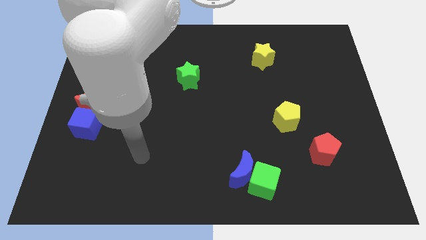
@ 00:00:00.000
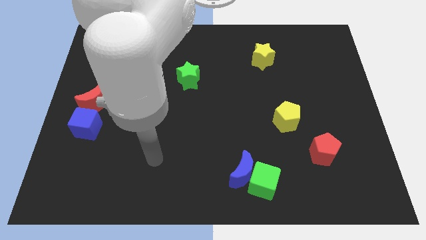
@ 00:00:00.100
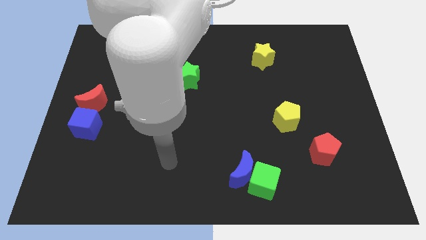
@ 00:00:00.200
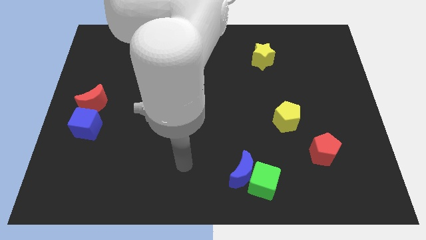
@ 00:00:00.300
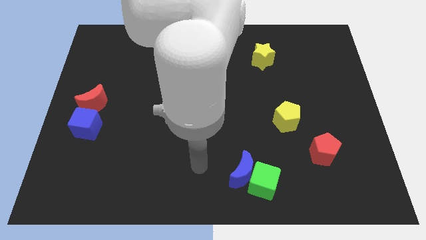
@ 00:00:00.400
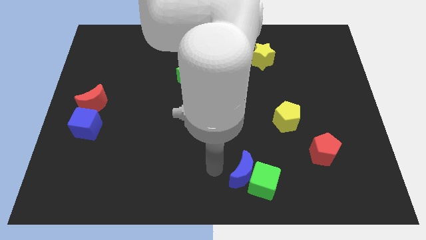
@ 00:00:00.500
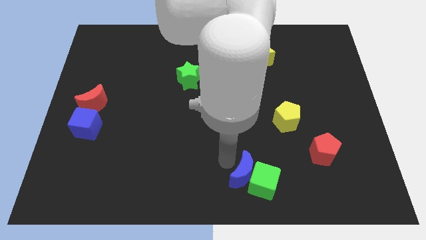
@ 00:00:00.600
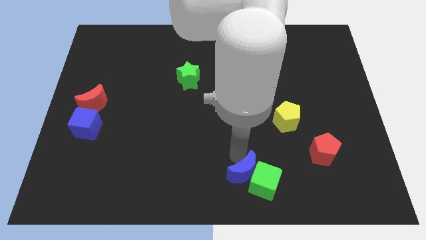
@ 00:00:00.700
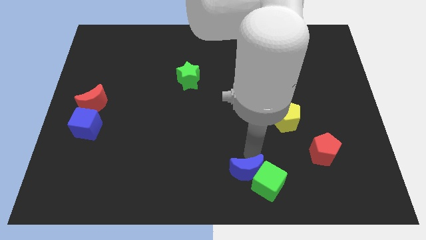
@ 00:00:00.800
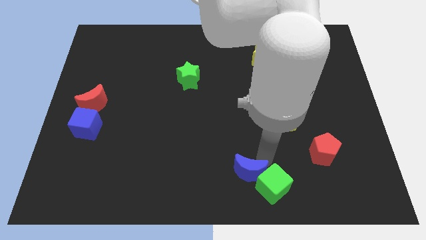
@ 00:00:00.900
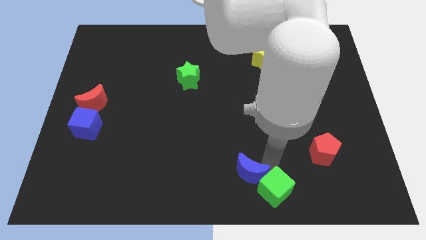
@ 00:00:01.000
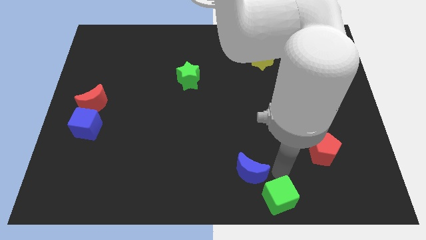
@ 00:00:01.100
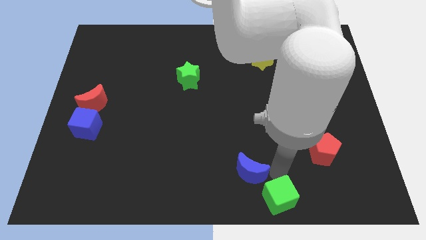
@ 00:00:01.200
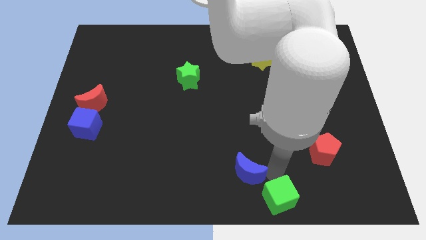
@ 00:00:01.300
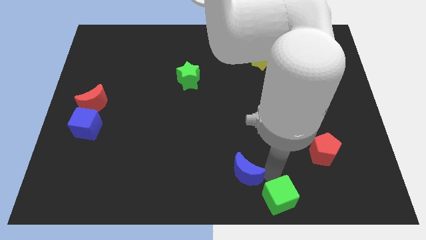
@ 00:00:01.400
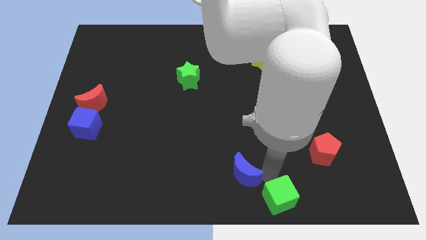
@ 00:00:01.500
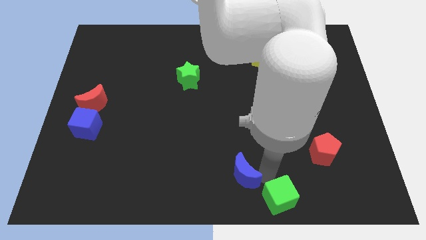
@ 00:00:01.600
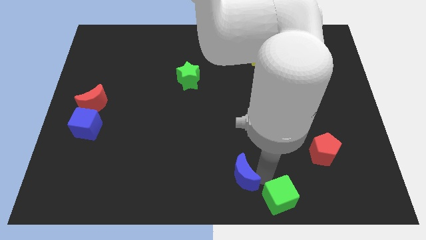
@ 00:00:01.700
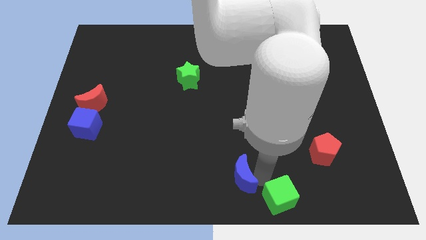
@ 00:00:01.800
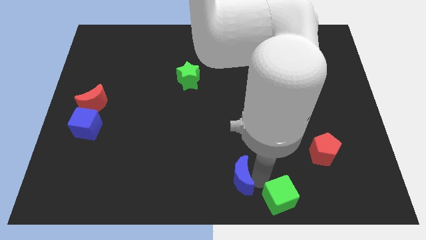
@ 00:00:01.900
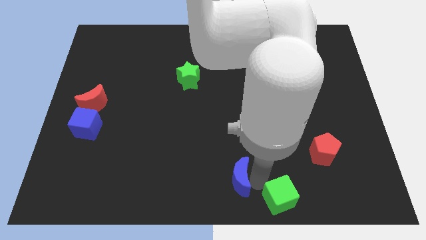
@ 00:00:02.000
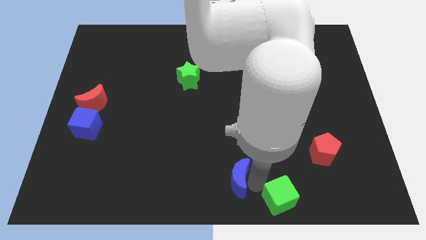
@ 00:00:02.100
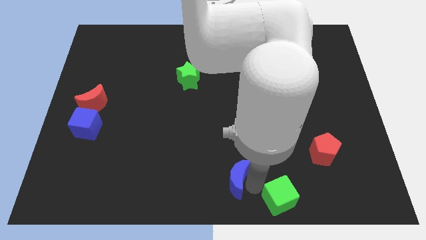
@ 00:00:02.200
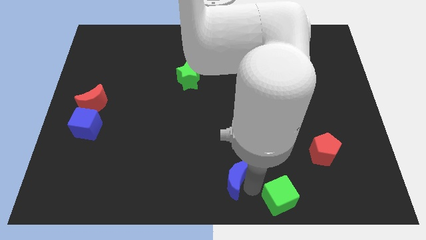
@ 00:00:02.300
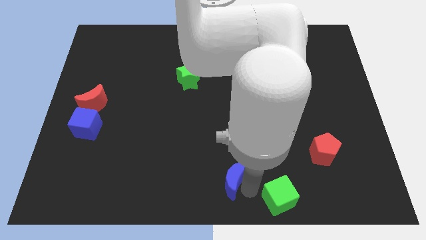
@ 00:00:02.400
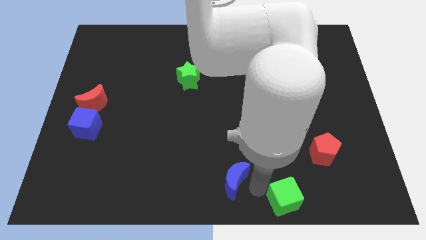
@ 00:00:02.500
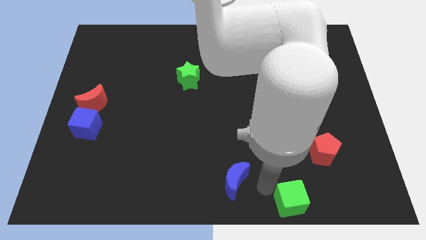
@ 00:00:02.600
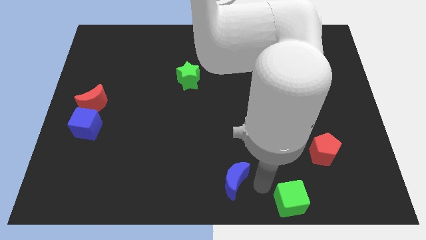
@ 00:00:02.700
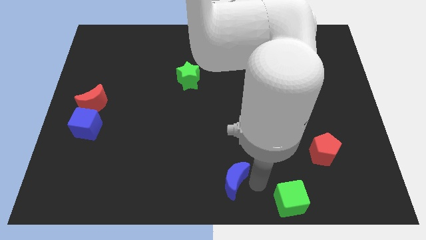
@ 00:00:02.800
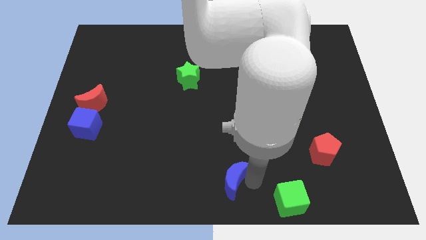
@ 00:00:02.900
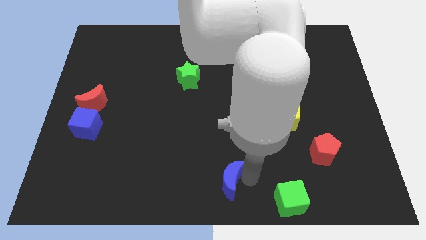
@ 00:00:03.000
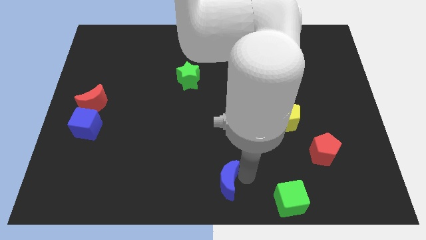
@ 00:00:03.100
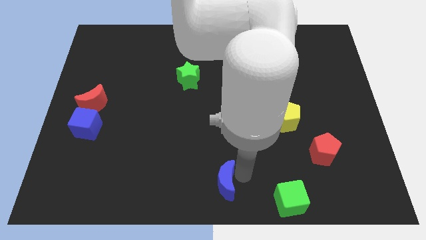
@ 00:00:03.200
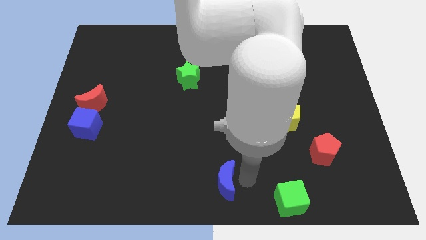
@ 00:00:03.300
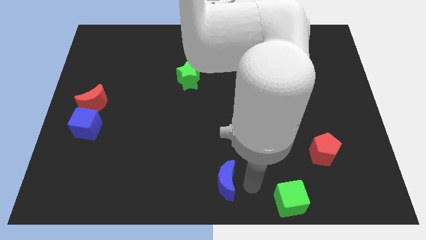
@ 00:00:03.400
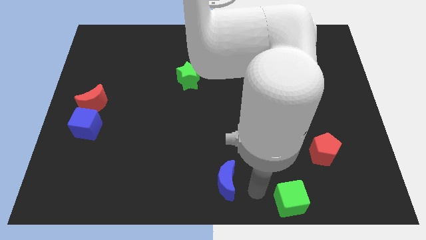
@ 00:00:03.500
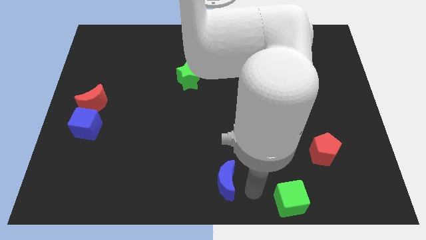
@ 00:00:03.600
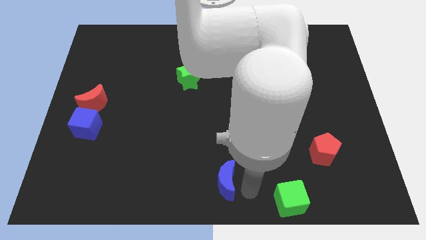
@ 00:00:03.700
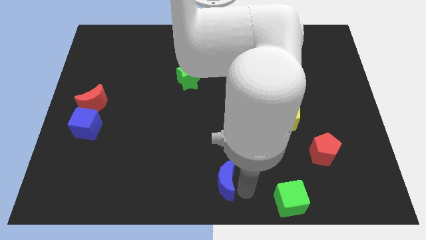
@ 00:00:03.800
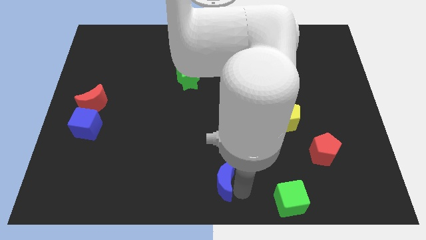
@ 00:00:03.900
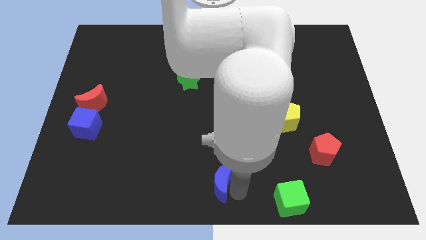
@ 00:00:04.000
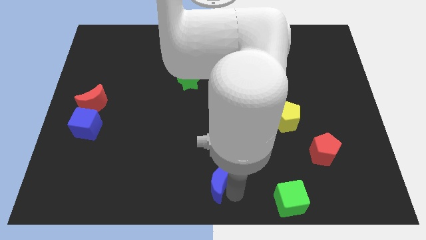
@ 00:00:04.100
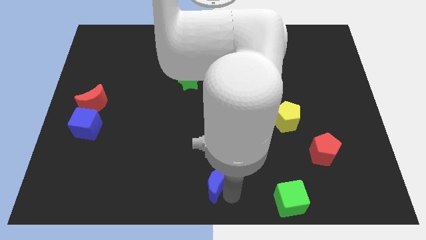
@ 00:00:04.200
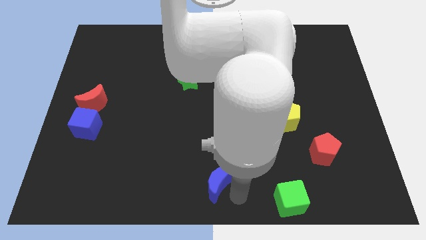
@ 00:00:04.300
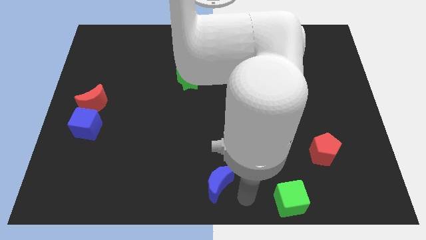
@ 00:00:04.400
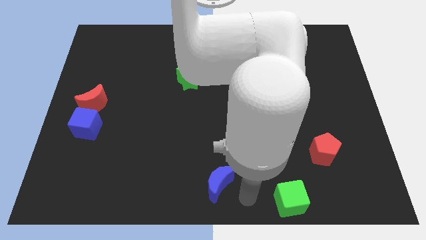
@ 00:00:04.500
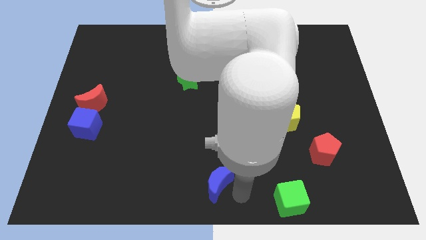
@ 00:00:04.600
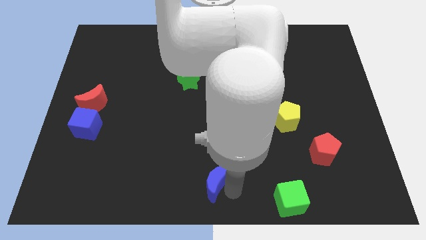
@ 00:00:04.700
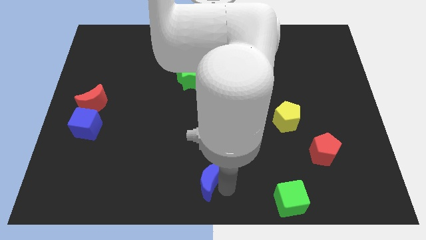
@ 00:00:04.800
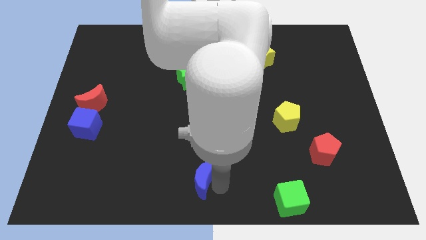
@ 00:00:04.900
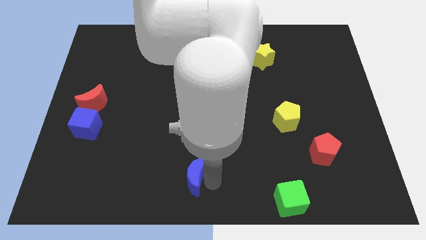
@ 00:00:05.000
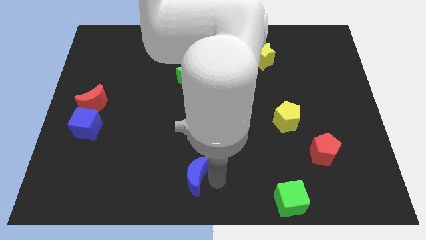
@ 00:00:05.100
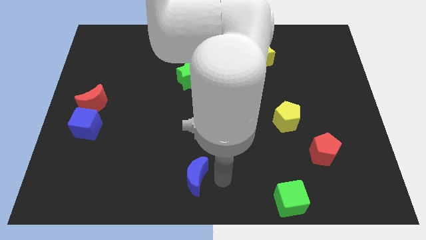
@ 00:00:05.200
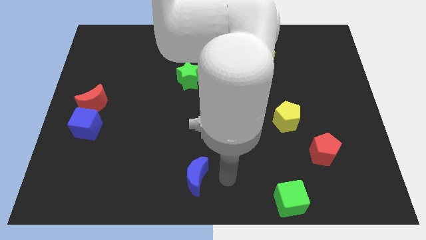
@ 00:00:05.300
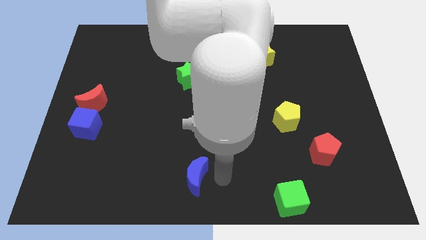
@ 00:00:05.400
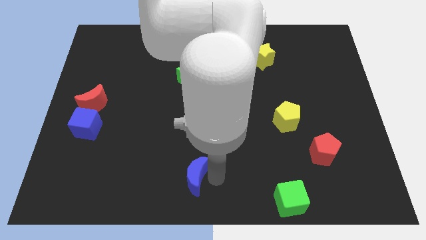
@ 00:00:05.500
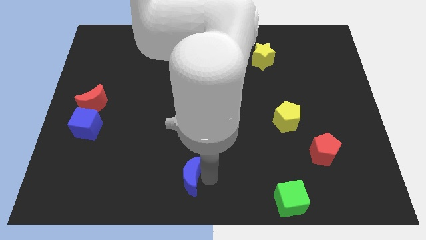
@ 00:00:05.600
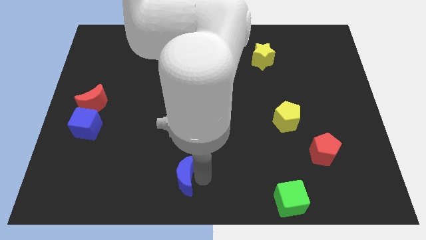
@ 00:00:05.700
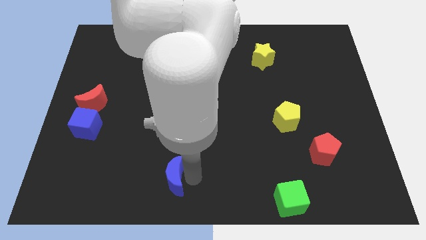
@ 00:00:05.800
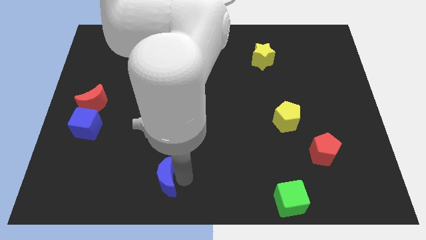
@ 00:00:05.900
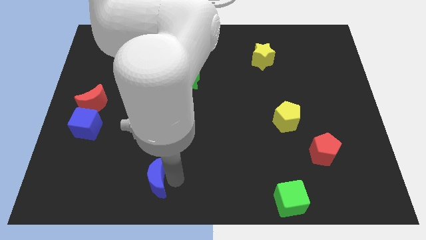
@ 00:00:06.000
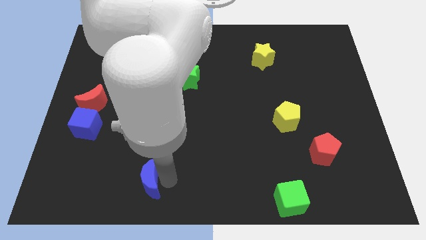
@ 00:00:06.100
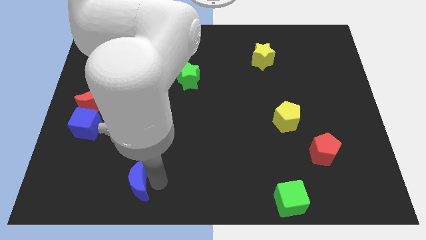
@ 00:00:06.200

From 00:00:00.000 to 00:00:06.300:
slide the blue moon to the left

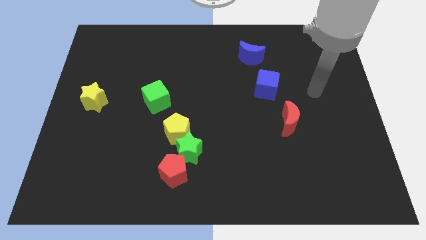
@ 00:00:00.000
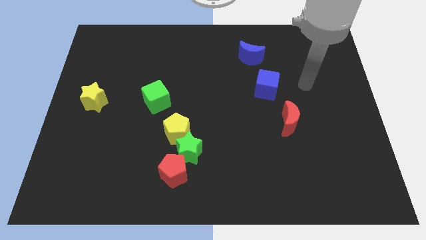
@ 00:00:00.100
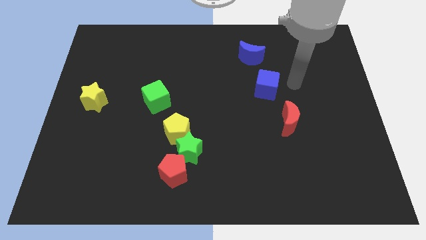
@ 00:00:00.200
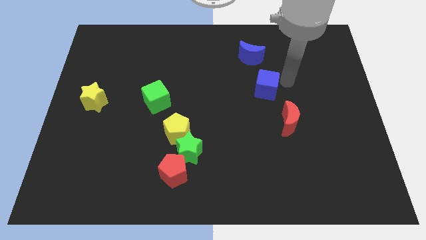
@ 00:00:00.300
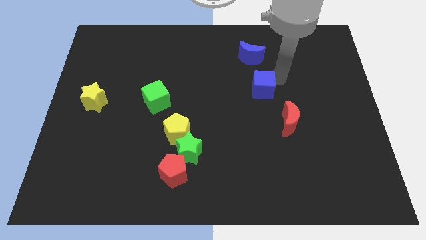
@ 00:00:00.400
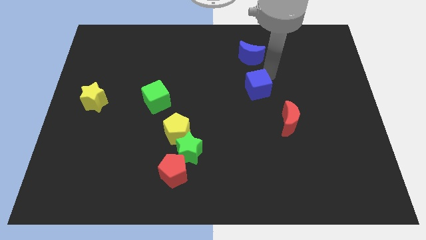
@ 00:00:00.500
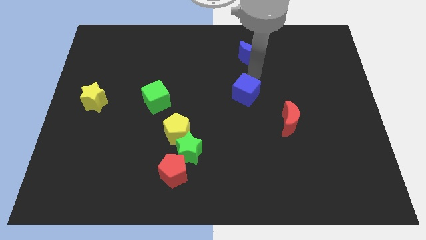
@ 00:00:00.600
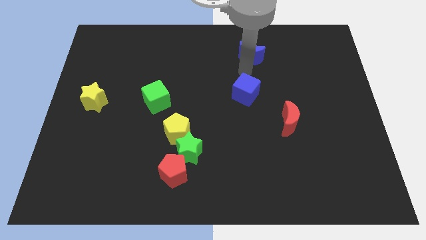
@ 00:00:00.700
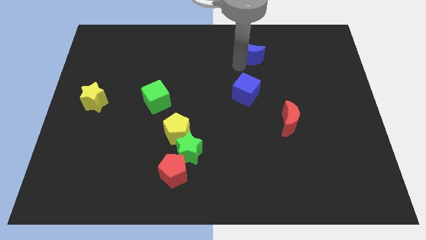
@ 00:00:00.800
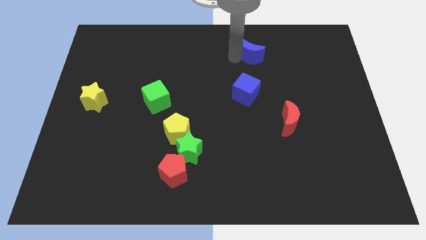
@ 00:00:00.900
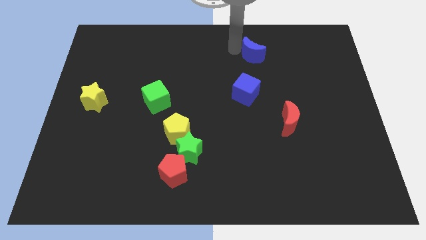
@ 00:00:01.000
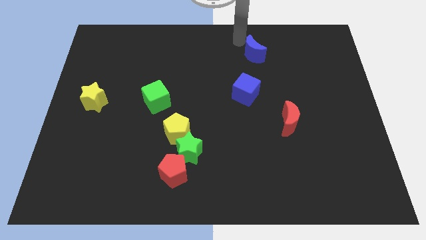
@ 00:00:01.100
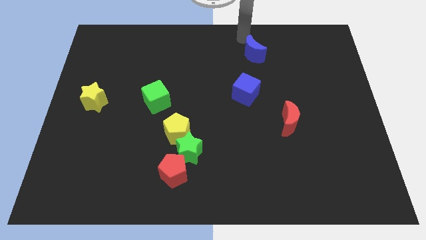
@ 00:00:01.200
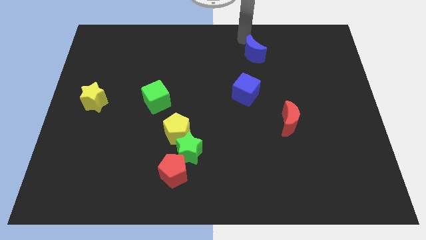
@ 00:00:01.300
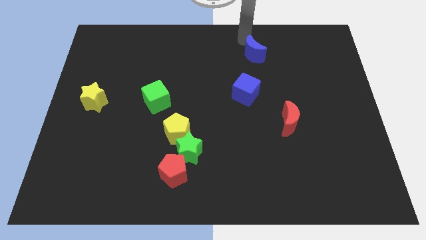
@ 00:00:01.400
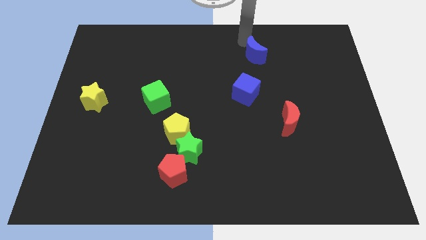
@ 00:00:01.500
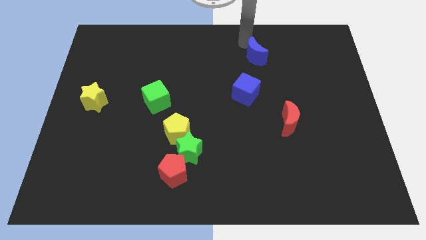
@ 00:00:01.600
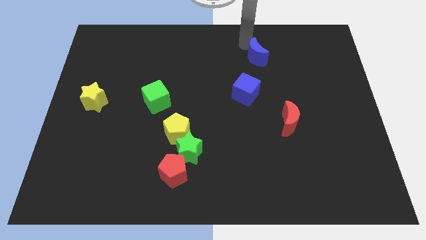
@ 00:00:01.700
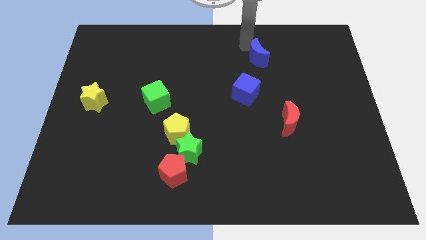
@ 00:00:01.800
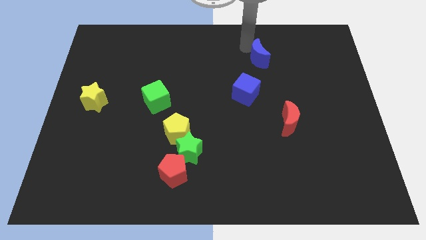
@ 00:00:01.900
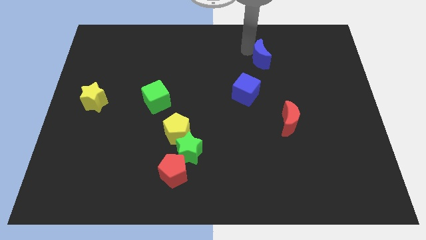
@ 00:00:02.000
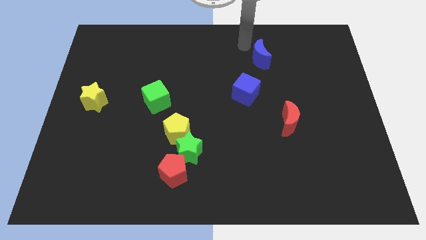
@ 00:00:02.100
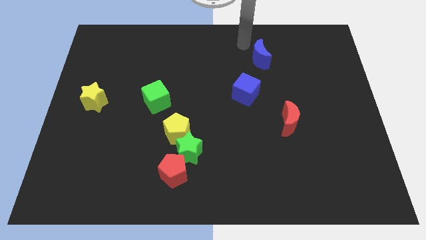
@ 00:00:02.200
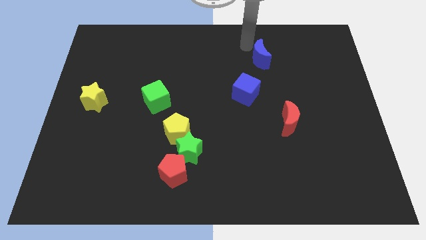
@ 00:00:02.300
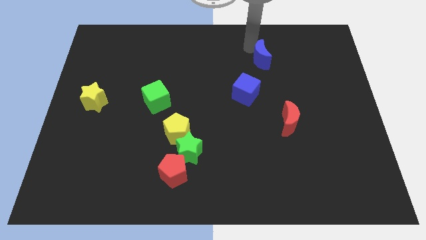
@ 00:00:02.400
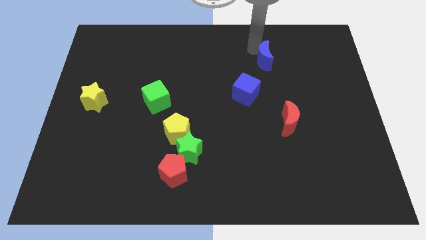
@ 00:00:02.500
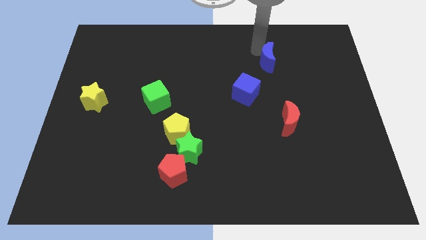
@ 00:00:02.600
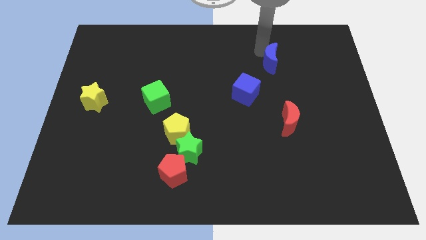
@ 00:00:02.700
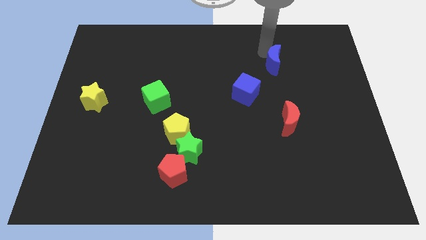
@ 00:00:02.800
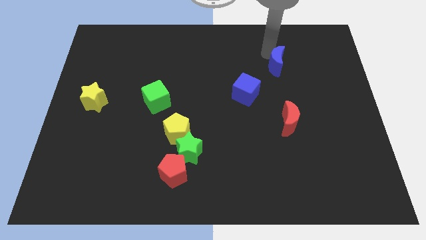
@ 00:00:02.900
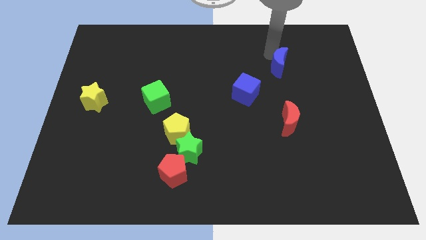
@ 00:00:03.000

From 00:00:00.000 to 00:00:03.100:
move the blue moon diagonally downwards and right slightly
